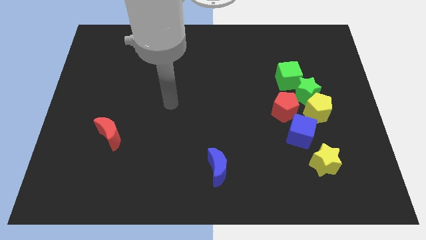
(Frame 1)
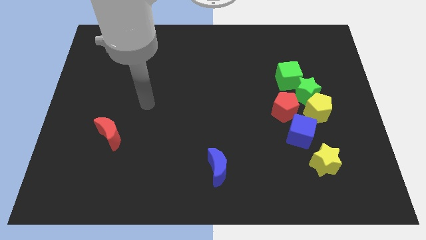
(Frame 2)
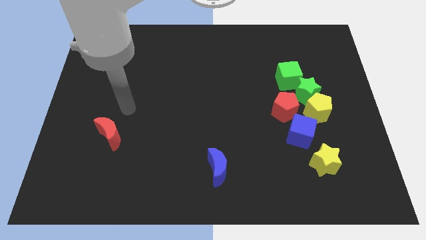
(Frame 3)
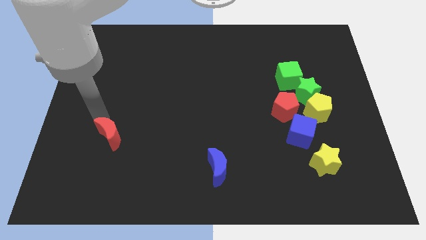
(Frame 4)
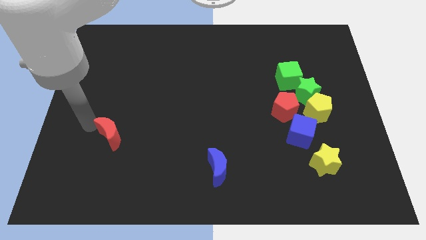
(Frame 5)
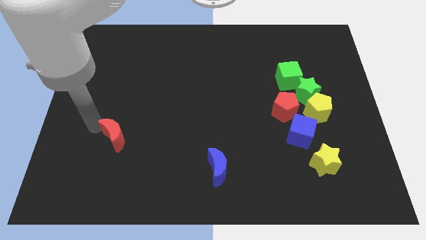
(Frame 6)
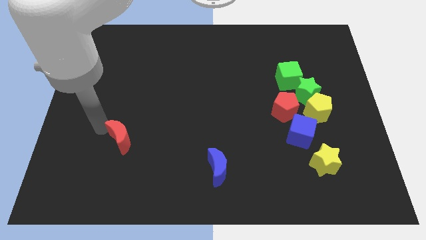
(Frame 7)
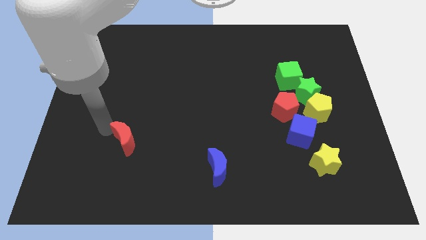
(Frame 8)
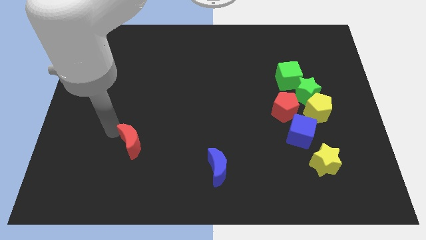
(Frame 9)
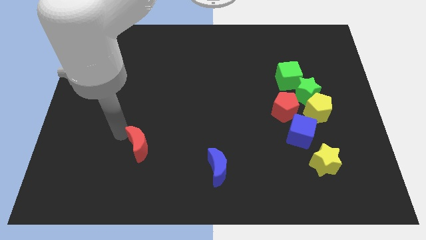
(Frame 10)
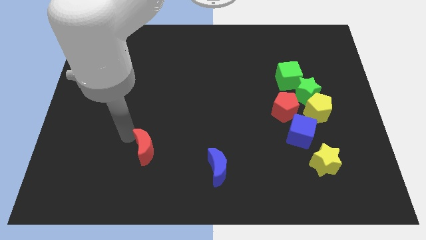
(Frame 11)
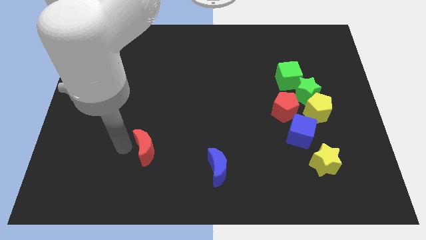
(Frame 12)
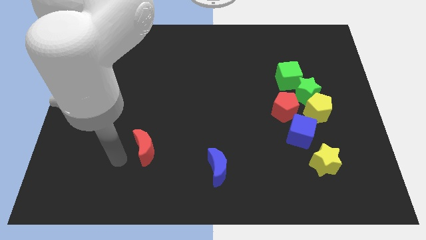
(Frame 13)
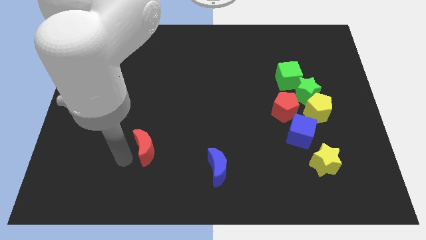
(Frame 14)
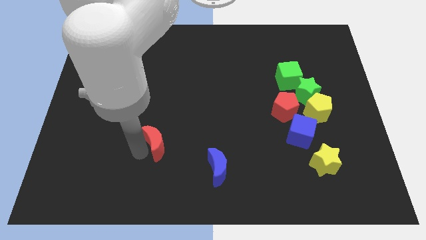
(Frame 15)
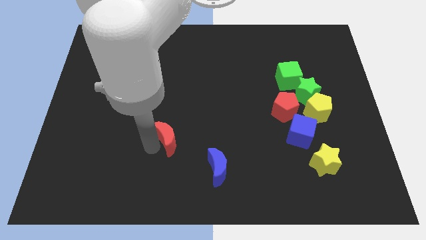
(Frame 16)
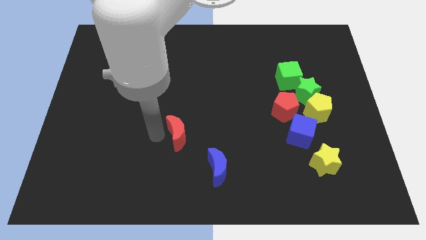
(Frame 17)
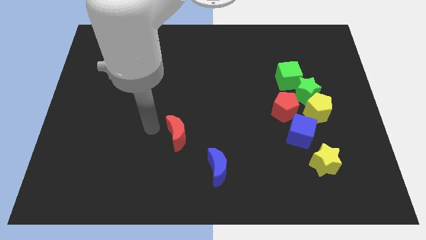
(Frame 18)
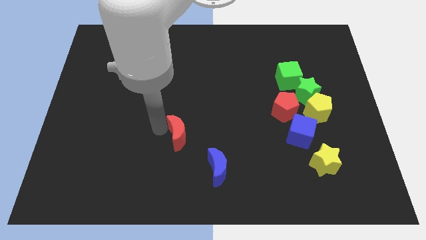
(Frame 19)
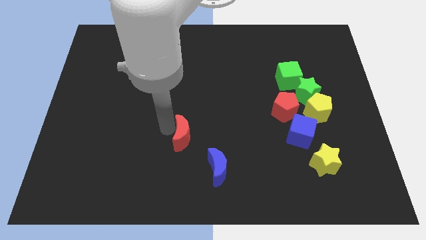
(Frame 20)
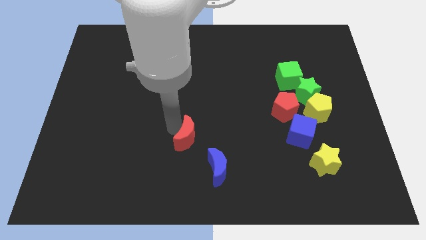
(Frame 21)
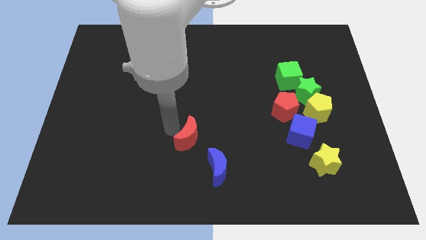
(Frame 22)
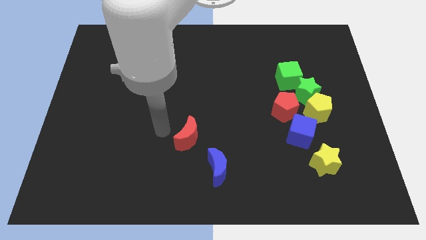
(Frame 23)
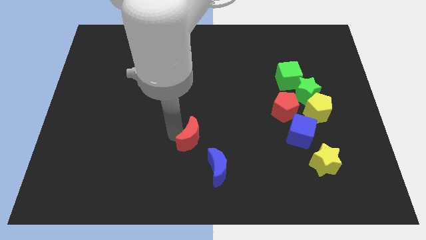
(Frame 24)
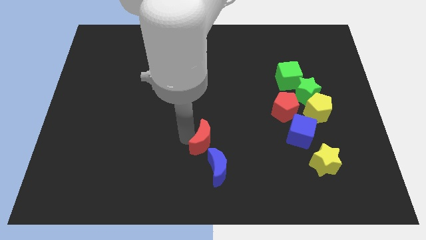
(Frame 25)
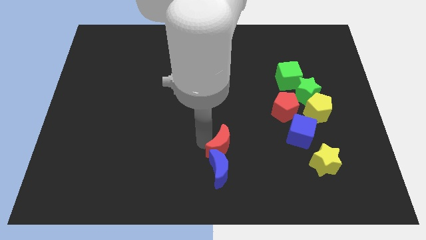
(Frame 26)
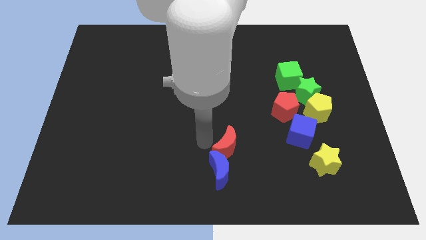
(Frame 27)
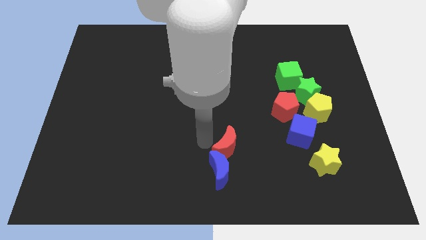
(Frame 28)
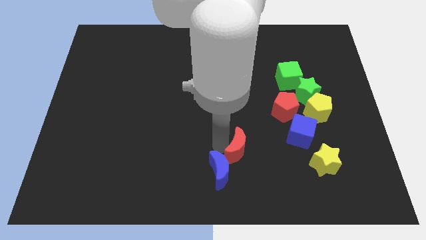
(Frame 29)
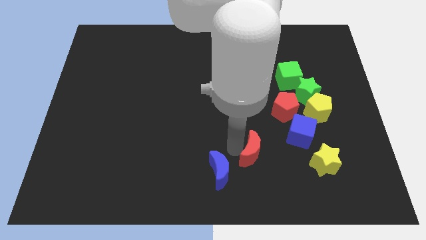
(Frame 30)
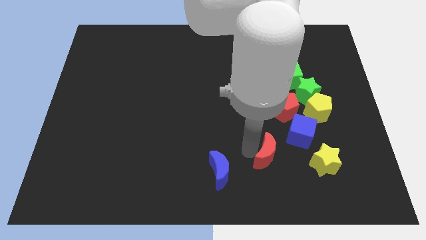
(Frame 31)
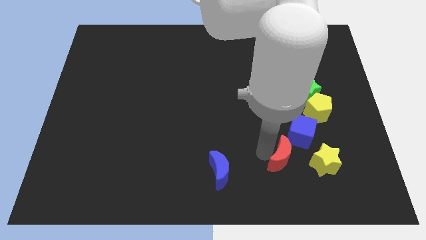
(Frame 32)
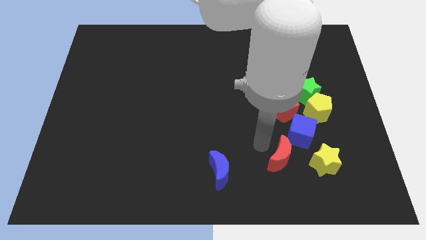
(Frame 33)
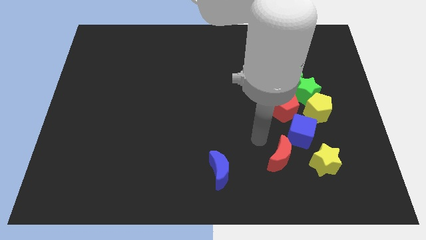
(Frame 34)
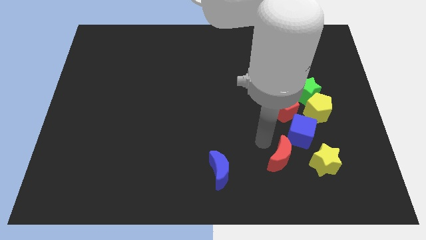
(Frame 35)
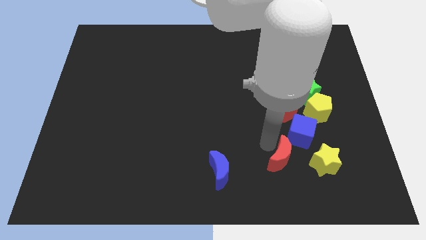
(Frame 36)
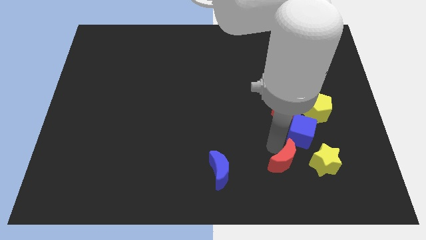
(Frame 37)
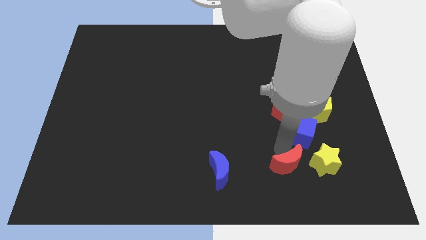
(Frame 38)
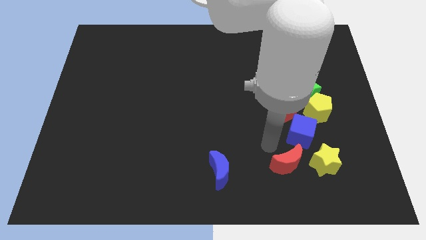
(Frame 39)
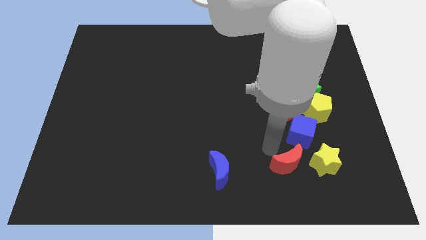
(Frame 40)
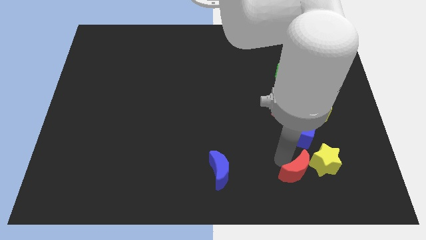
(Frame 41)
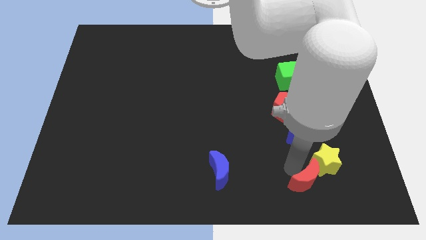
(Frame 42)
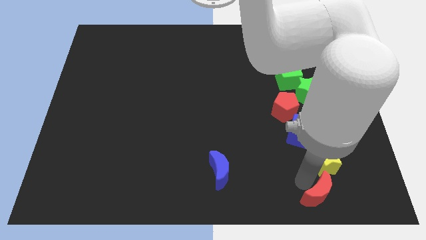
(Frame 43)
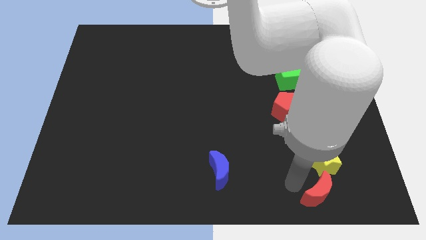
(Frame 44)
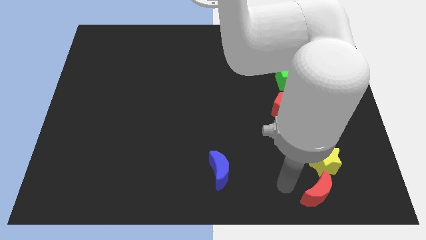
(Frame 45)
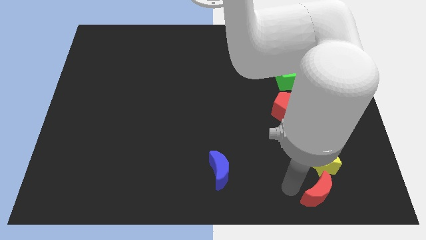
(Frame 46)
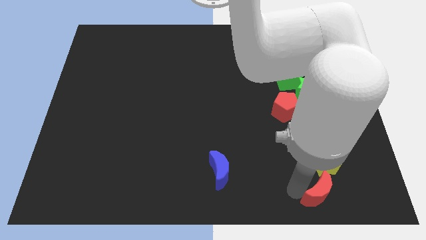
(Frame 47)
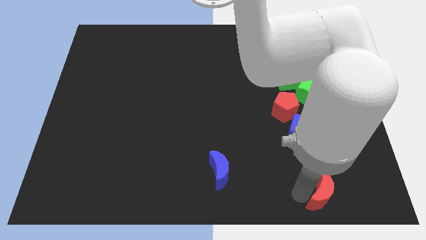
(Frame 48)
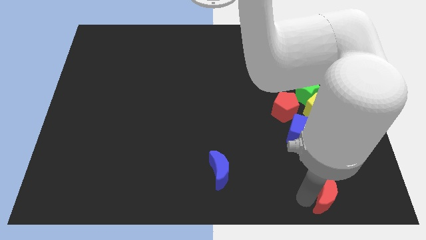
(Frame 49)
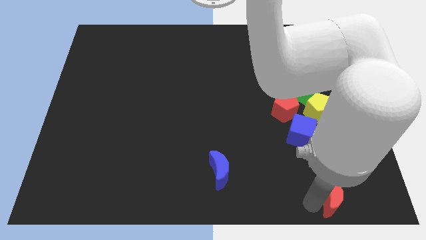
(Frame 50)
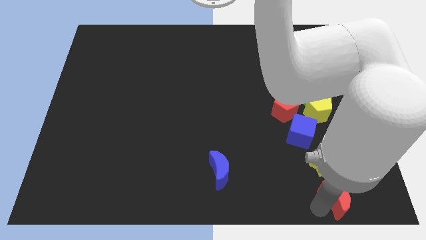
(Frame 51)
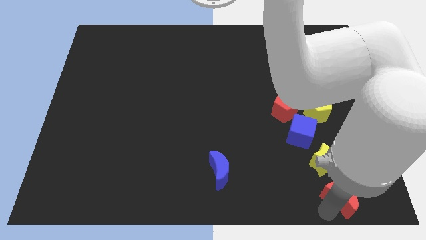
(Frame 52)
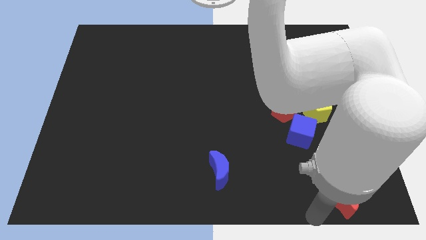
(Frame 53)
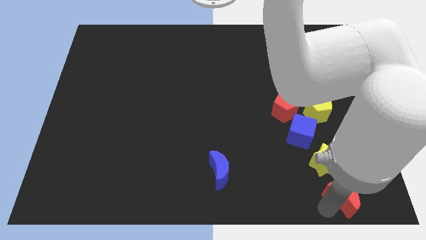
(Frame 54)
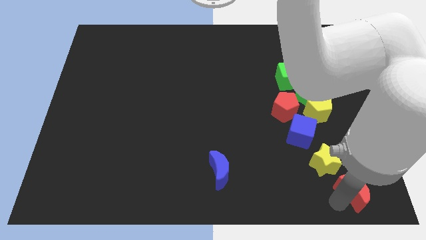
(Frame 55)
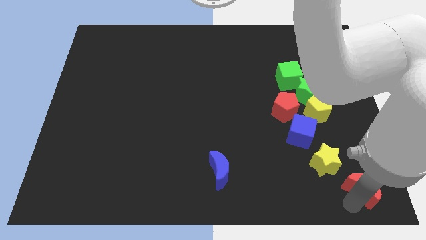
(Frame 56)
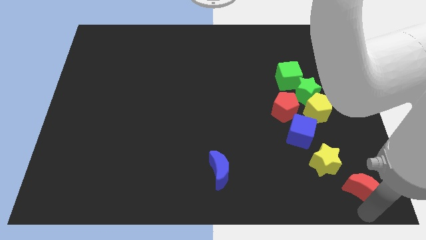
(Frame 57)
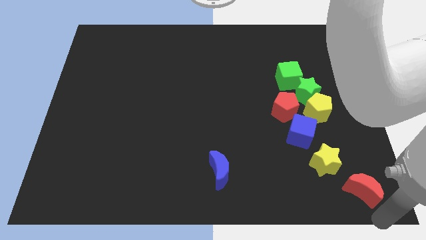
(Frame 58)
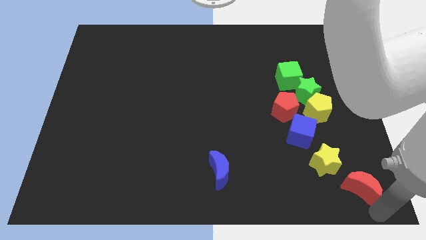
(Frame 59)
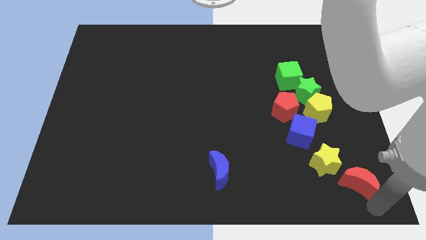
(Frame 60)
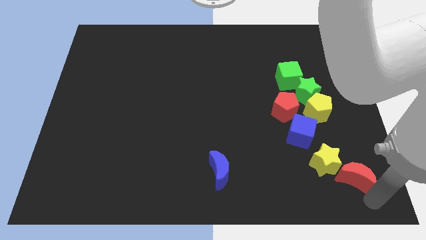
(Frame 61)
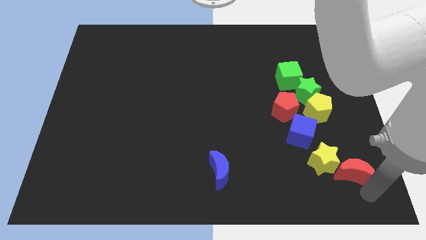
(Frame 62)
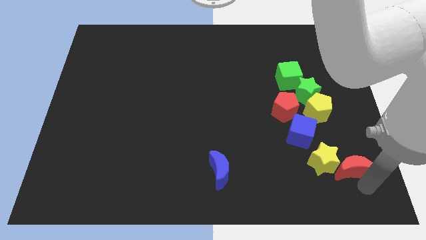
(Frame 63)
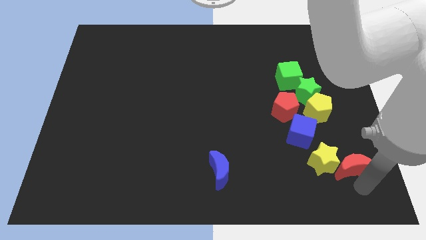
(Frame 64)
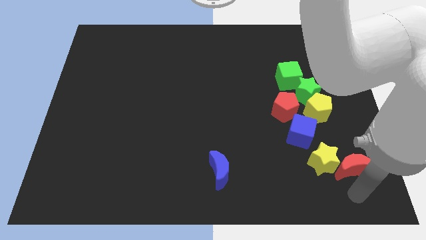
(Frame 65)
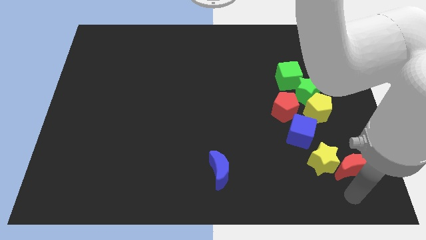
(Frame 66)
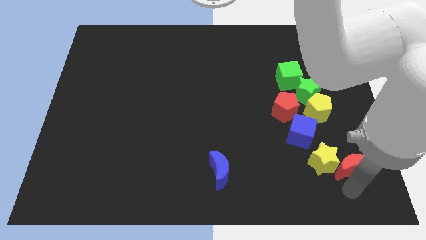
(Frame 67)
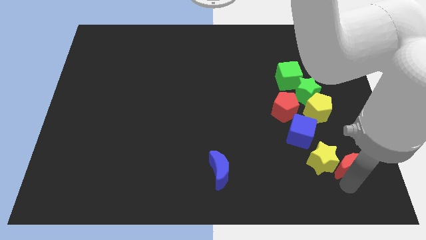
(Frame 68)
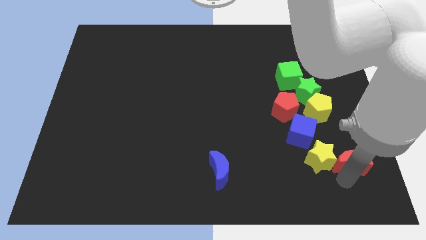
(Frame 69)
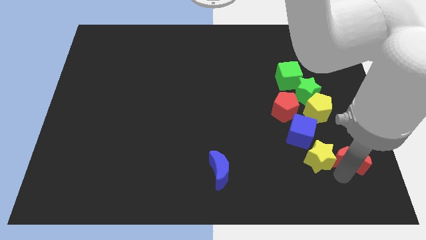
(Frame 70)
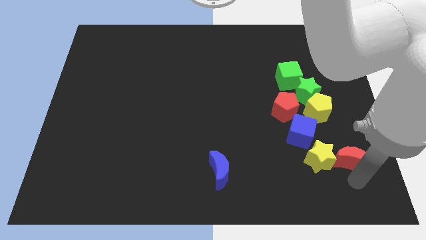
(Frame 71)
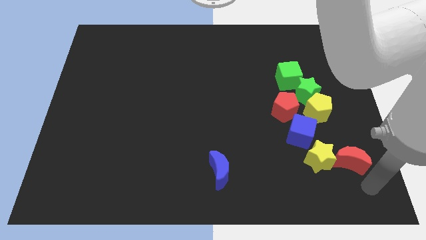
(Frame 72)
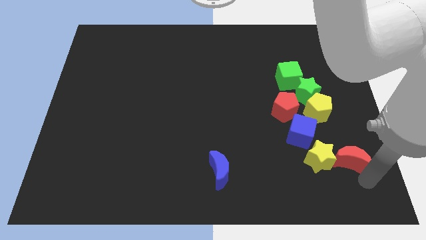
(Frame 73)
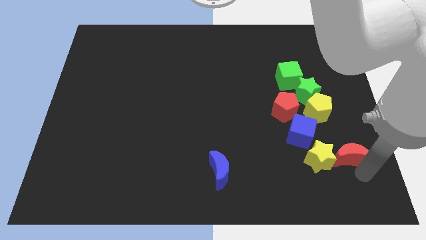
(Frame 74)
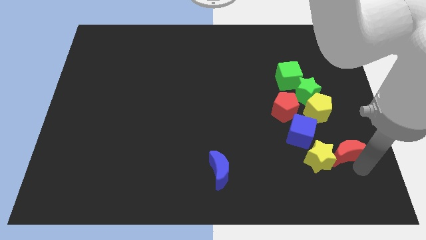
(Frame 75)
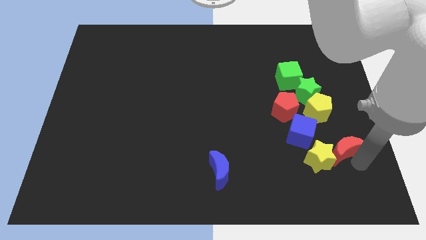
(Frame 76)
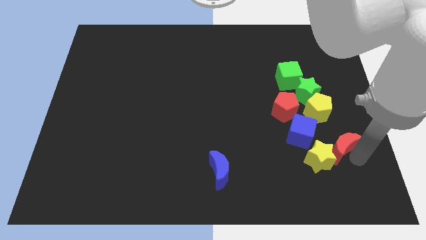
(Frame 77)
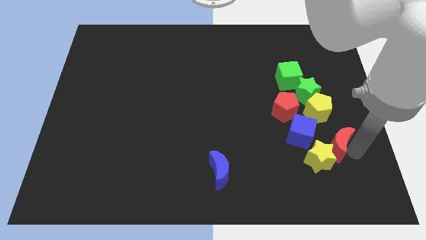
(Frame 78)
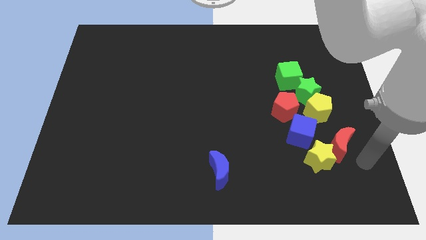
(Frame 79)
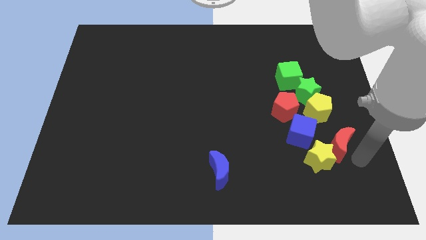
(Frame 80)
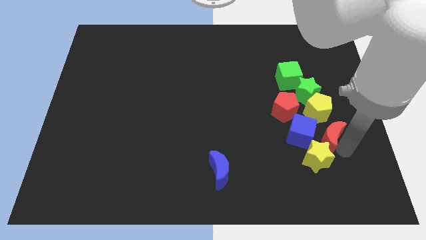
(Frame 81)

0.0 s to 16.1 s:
slide the red moon to the bottom right of the red pentagon

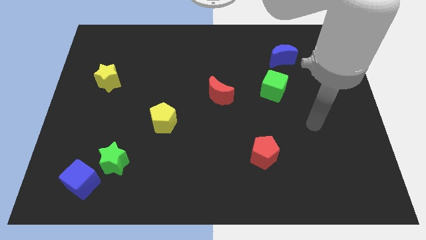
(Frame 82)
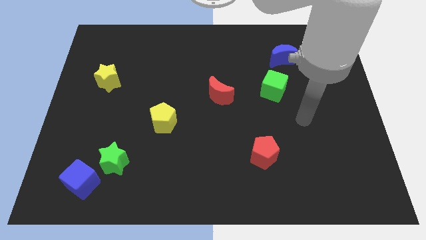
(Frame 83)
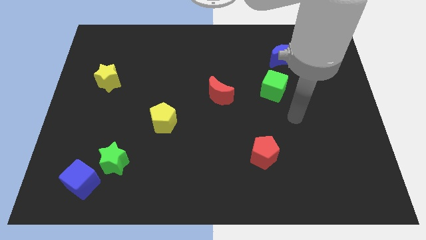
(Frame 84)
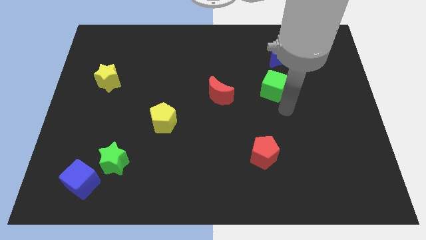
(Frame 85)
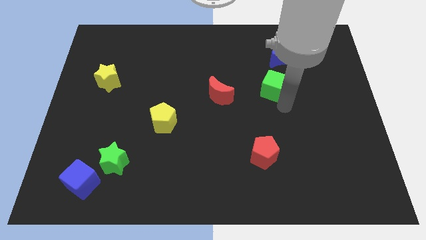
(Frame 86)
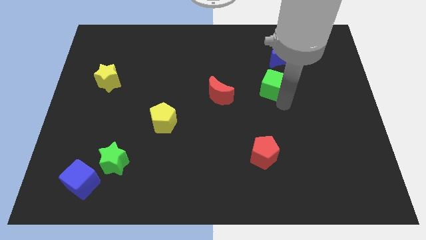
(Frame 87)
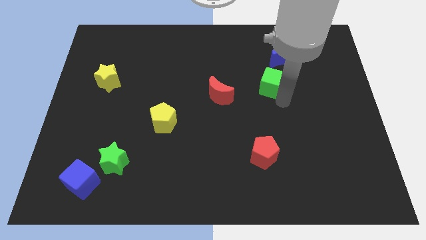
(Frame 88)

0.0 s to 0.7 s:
slide the green cube diagonally down and to the left of the blue moon
